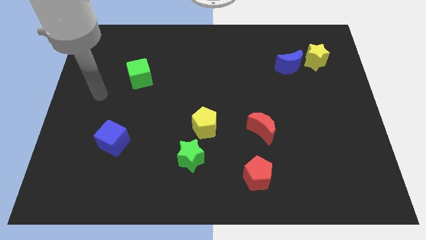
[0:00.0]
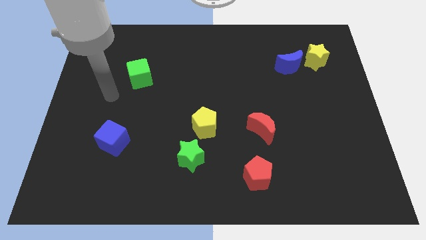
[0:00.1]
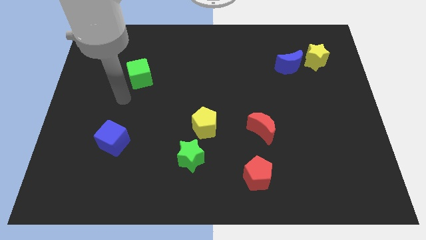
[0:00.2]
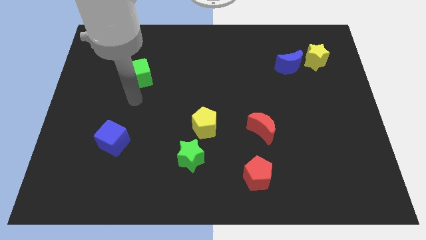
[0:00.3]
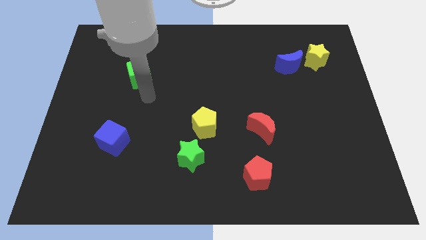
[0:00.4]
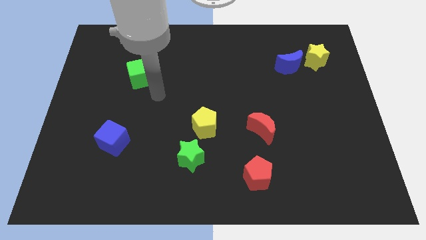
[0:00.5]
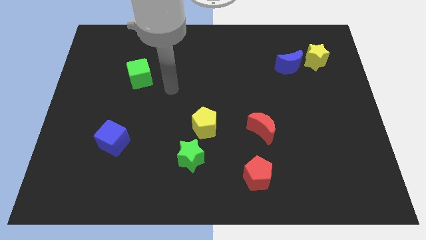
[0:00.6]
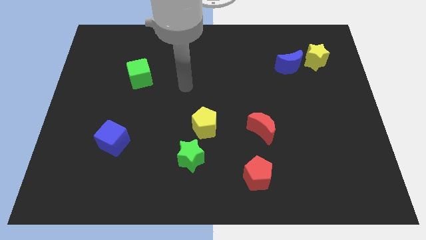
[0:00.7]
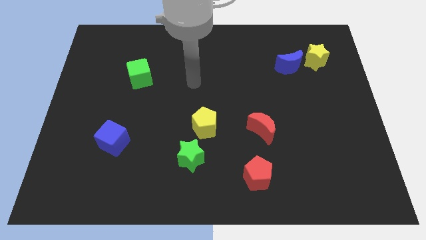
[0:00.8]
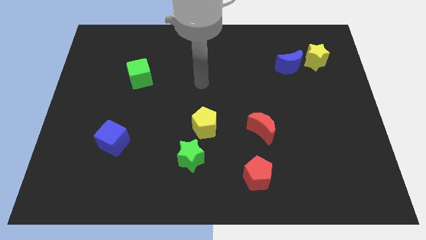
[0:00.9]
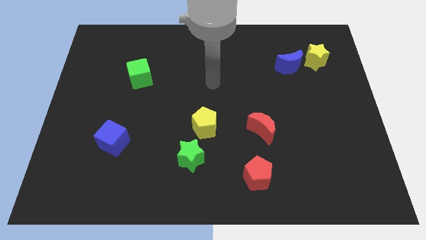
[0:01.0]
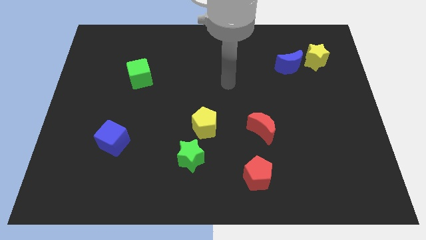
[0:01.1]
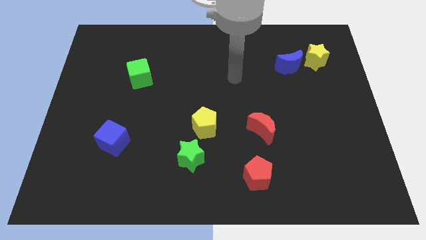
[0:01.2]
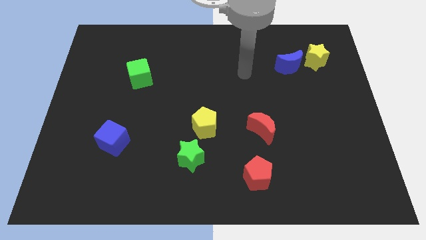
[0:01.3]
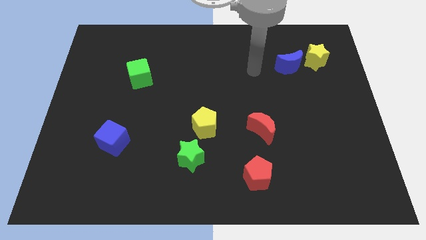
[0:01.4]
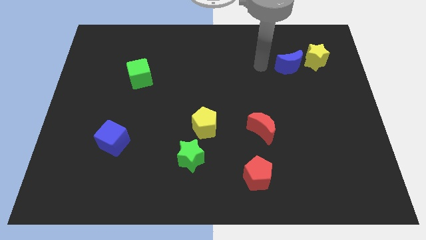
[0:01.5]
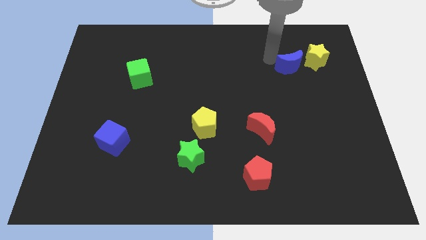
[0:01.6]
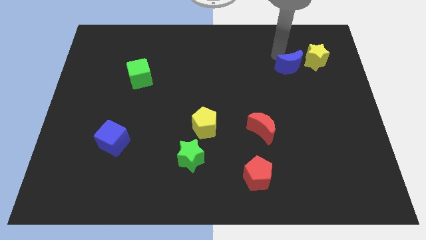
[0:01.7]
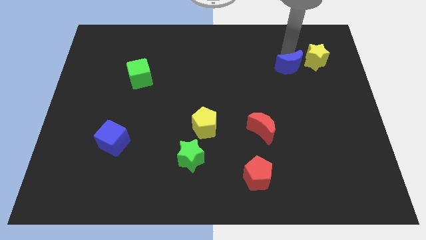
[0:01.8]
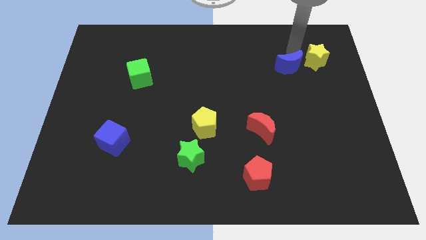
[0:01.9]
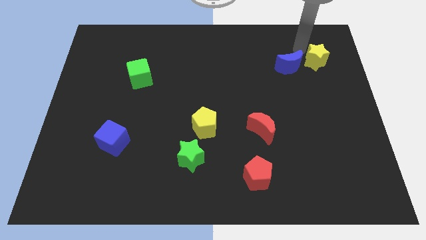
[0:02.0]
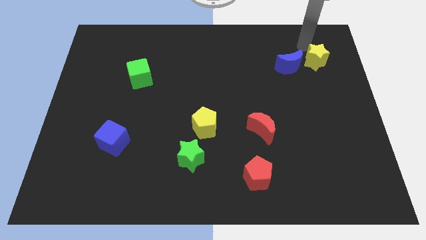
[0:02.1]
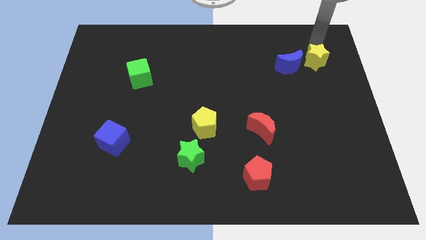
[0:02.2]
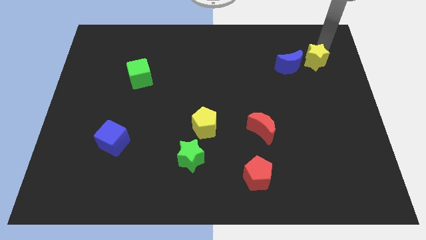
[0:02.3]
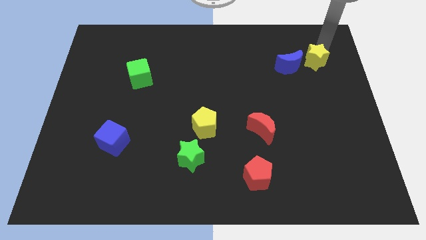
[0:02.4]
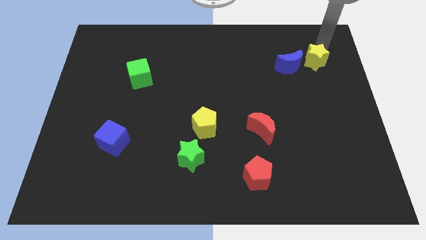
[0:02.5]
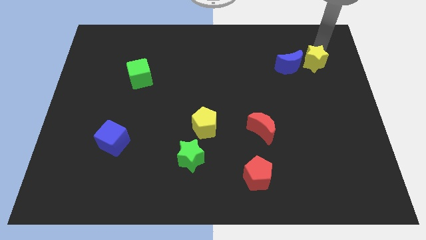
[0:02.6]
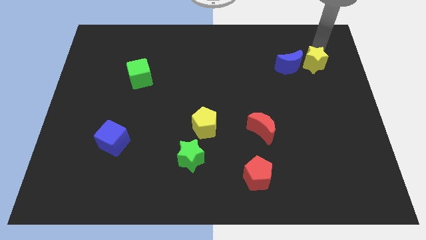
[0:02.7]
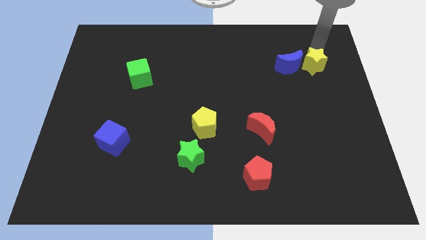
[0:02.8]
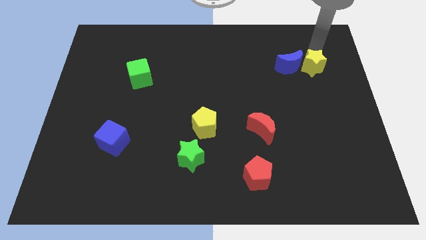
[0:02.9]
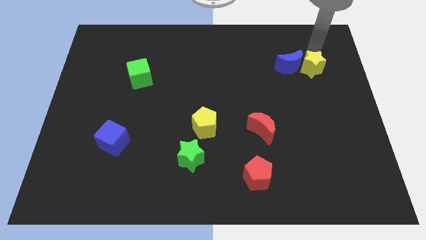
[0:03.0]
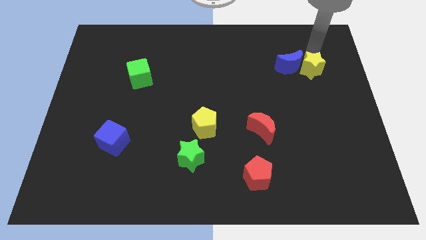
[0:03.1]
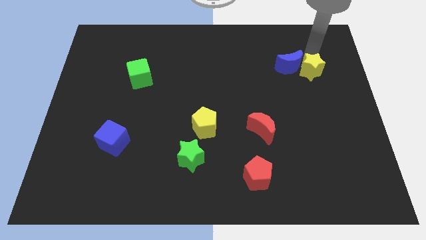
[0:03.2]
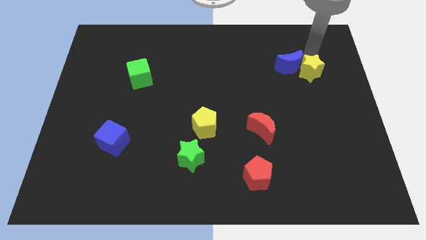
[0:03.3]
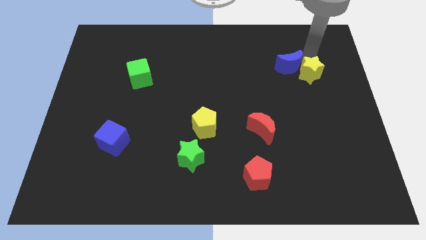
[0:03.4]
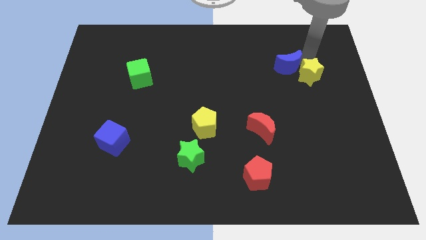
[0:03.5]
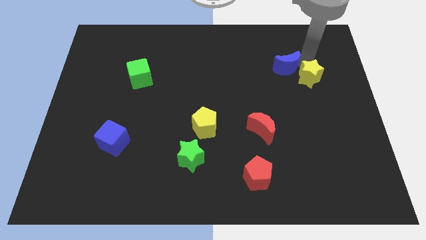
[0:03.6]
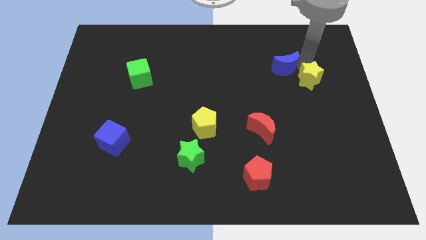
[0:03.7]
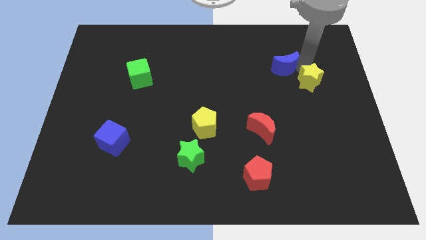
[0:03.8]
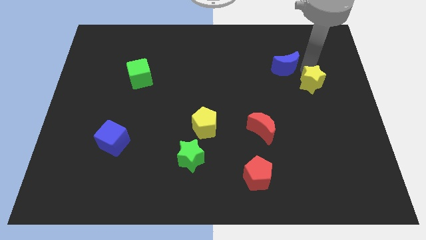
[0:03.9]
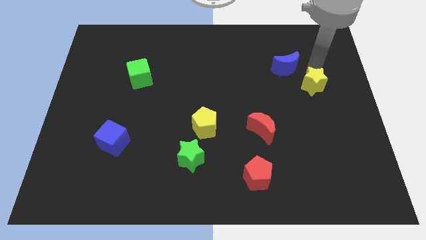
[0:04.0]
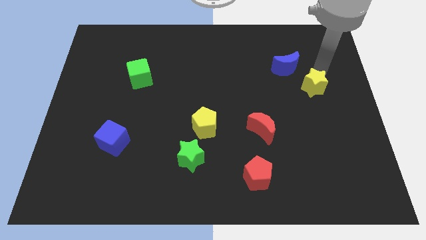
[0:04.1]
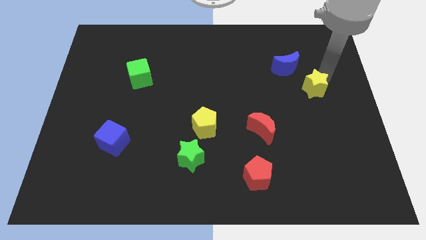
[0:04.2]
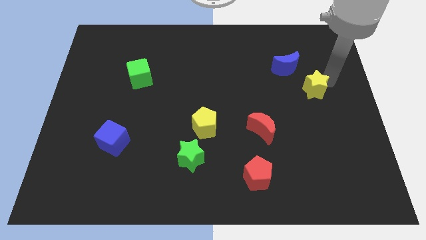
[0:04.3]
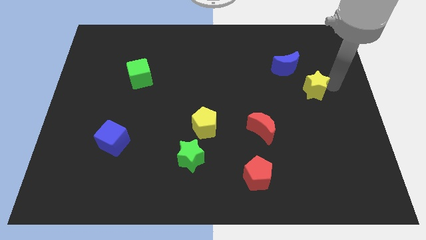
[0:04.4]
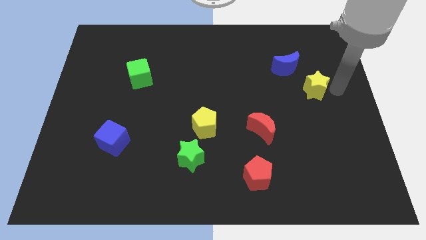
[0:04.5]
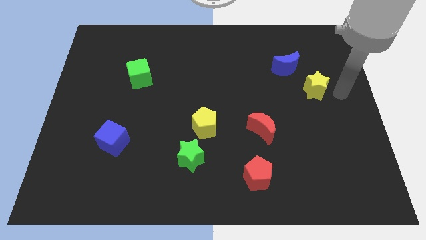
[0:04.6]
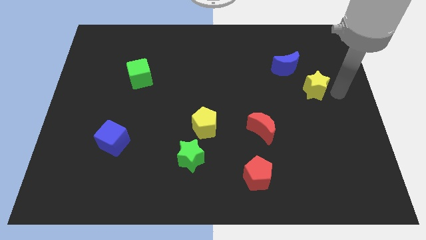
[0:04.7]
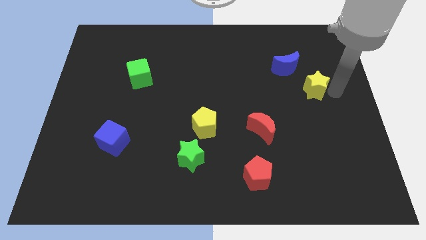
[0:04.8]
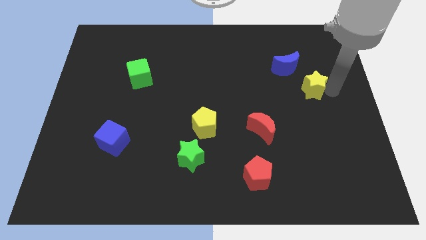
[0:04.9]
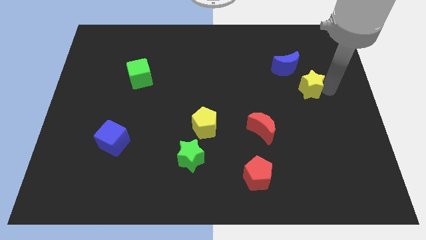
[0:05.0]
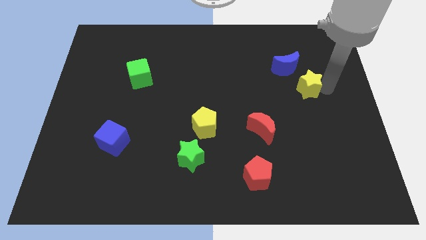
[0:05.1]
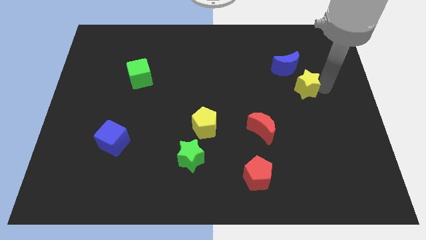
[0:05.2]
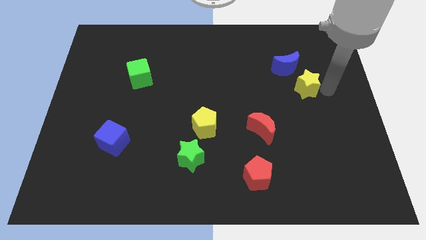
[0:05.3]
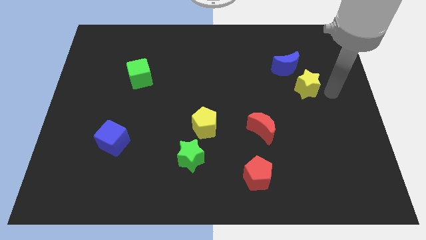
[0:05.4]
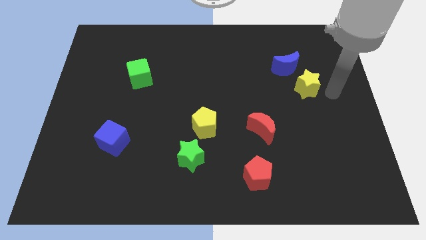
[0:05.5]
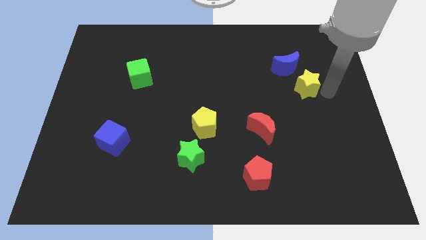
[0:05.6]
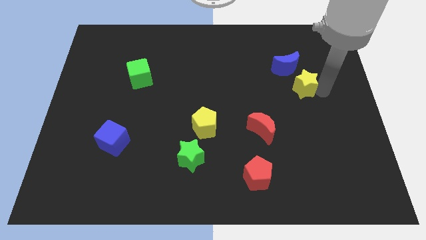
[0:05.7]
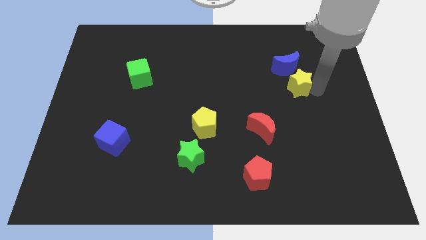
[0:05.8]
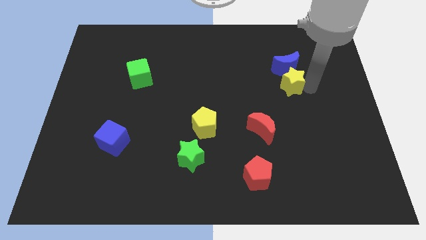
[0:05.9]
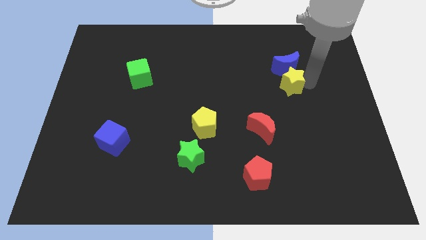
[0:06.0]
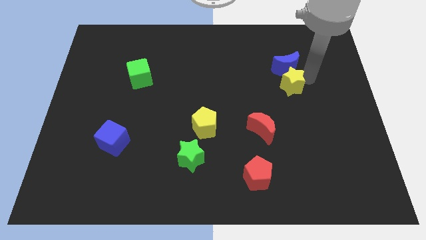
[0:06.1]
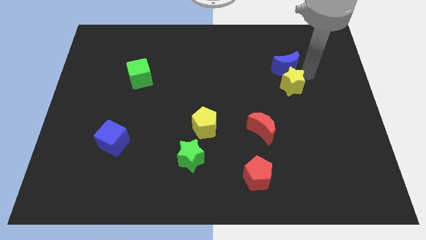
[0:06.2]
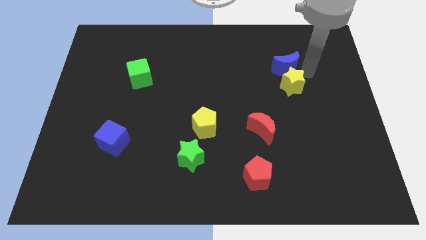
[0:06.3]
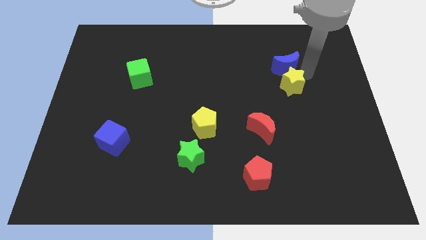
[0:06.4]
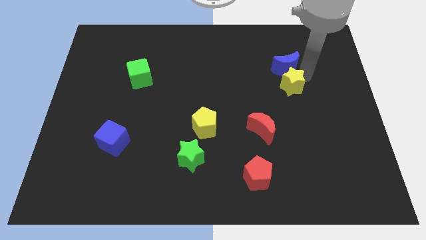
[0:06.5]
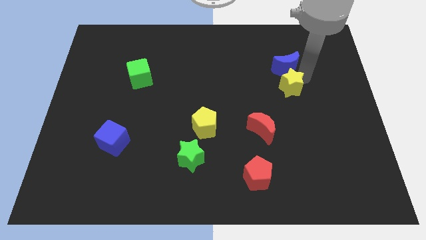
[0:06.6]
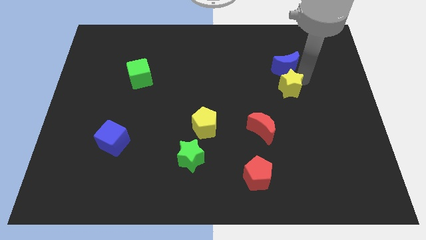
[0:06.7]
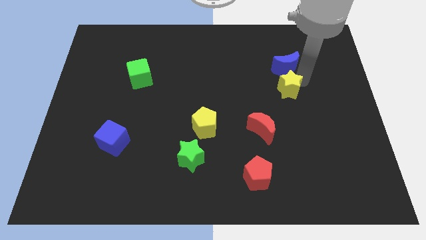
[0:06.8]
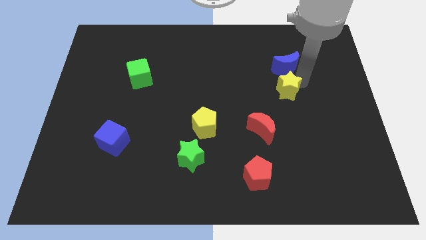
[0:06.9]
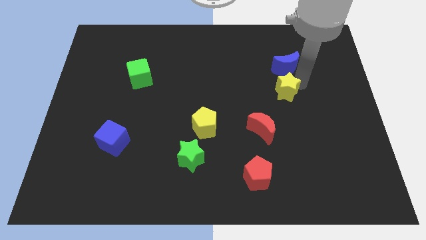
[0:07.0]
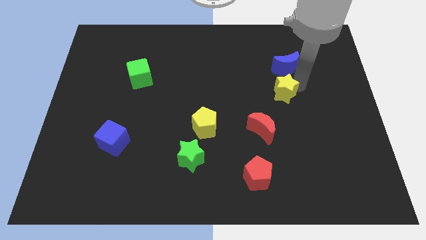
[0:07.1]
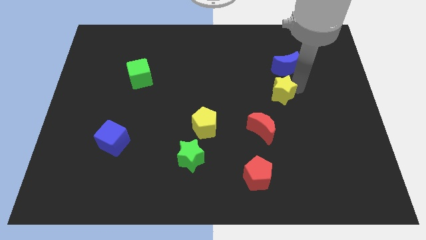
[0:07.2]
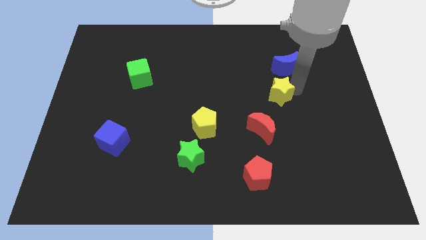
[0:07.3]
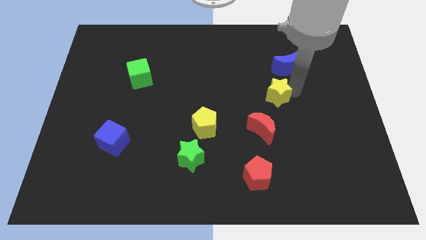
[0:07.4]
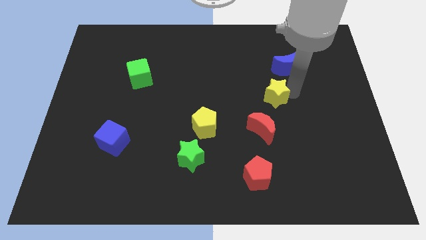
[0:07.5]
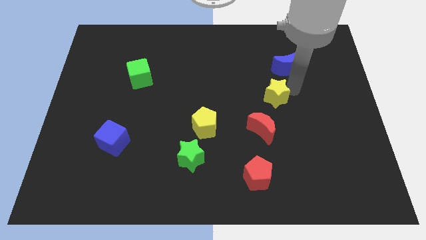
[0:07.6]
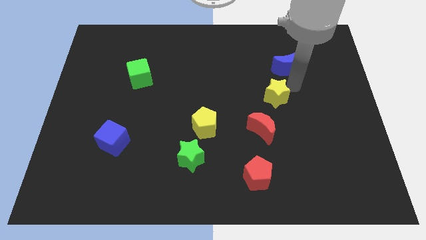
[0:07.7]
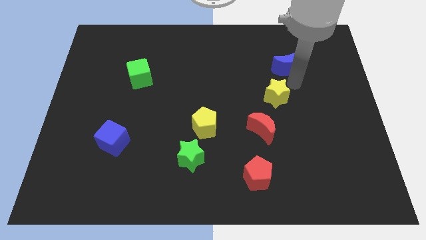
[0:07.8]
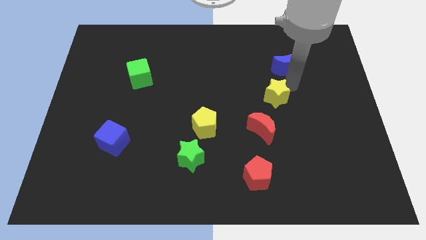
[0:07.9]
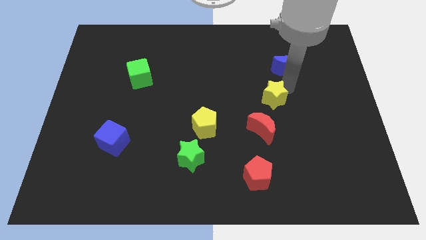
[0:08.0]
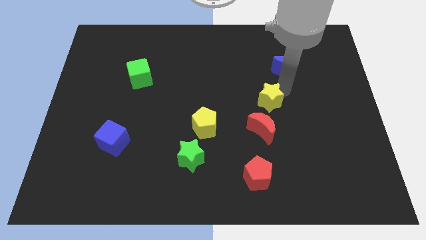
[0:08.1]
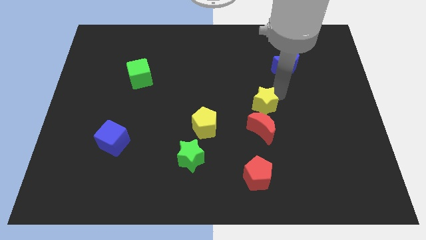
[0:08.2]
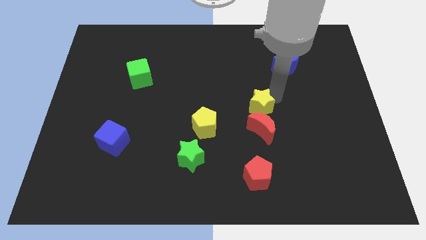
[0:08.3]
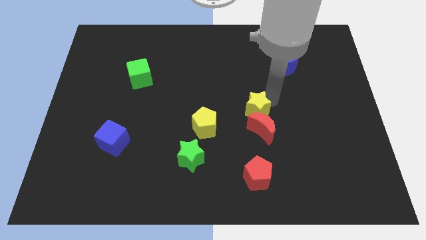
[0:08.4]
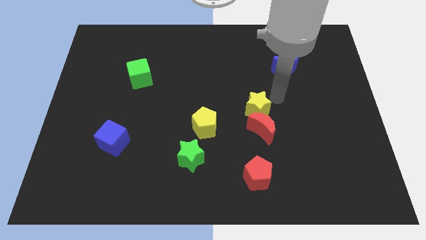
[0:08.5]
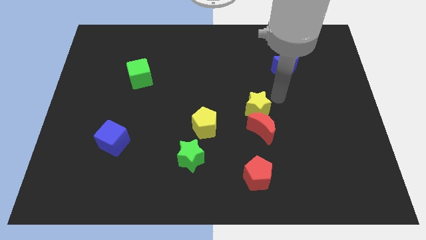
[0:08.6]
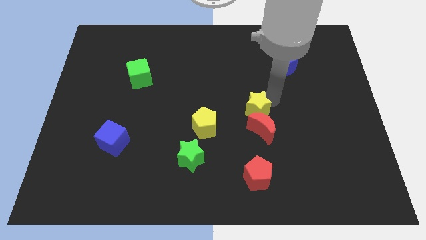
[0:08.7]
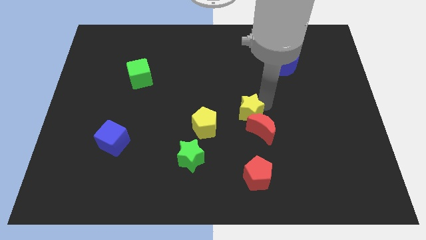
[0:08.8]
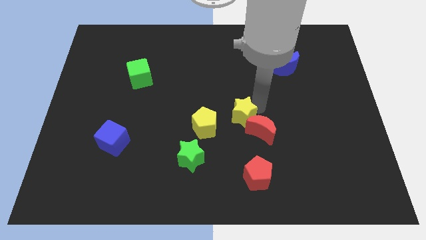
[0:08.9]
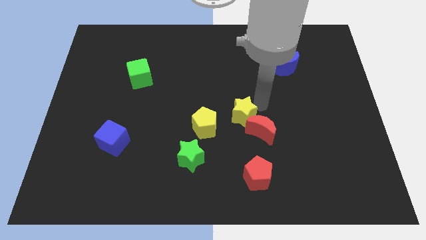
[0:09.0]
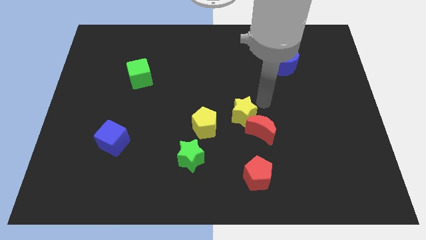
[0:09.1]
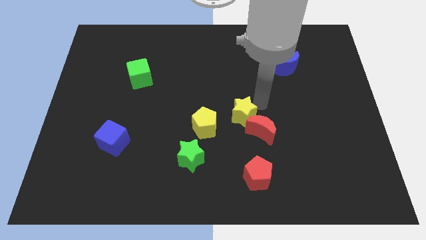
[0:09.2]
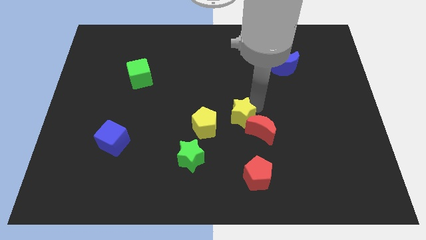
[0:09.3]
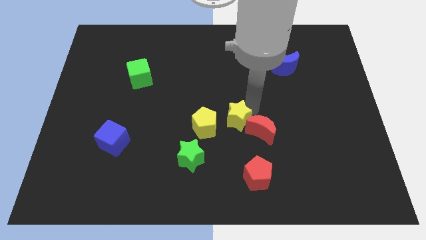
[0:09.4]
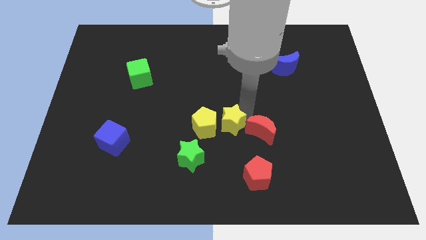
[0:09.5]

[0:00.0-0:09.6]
move the yellow star diagonally up and to the right of the green star
